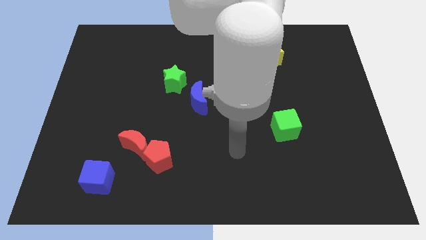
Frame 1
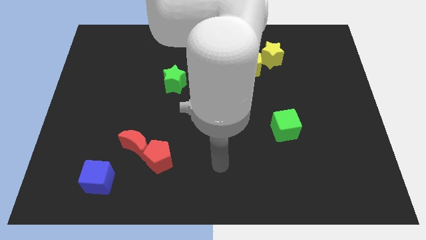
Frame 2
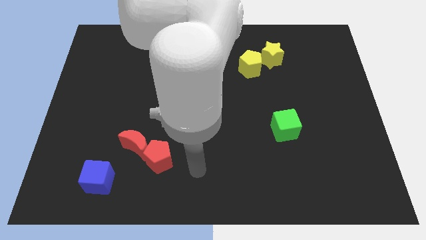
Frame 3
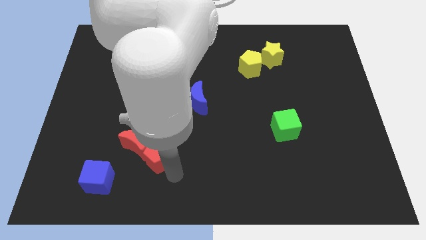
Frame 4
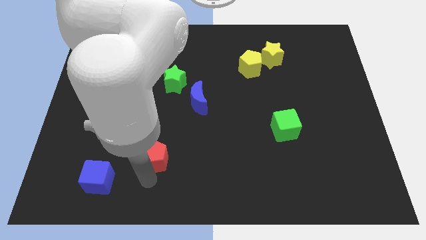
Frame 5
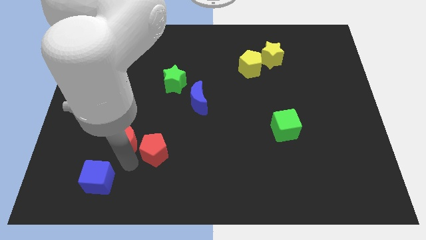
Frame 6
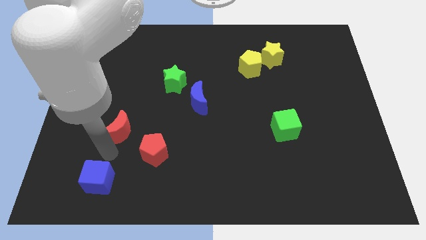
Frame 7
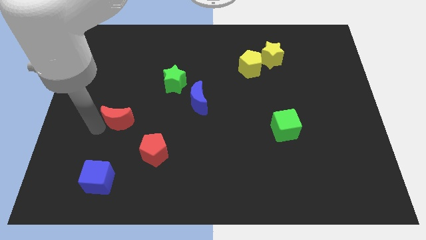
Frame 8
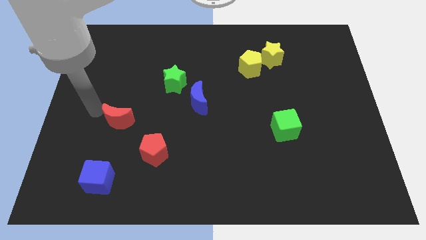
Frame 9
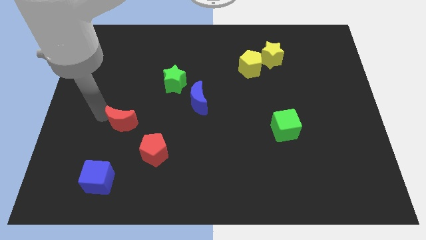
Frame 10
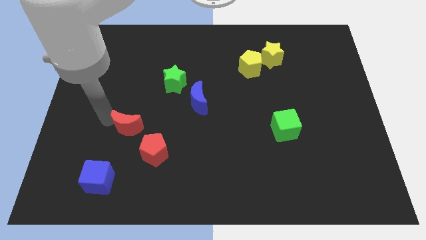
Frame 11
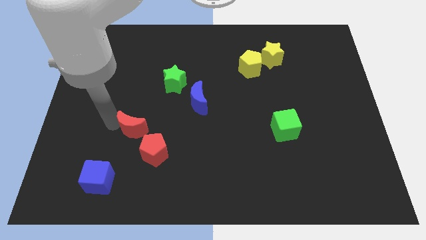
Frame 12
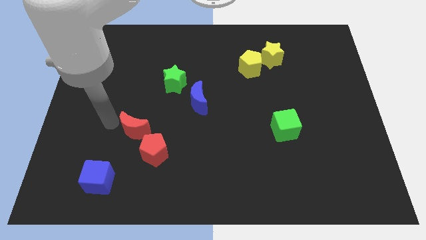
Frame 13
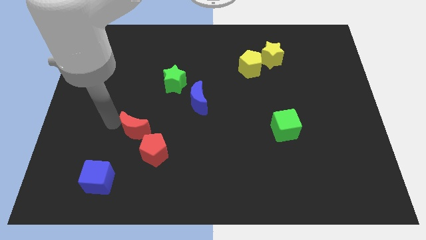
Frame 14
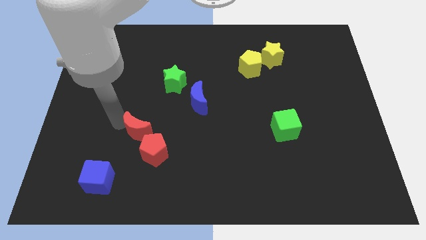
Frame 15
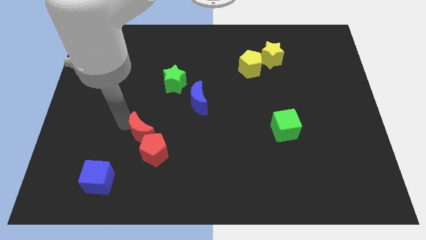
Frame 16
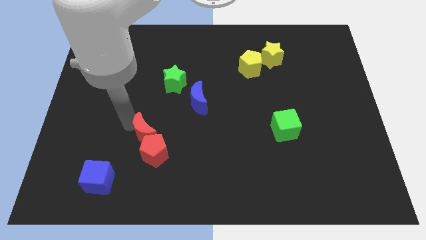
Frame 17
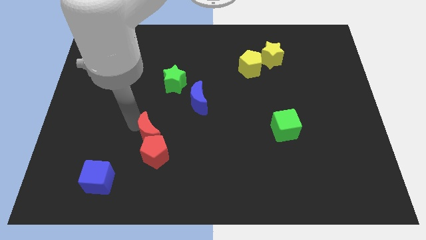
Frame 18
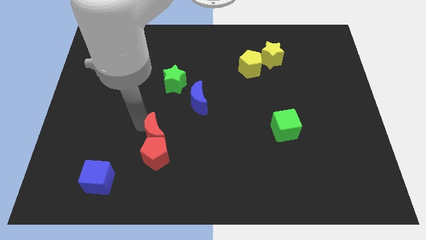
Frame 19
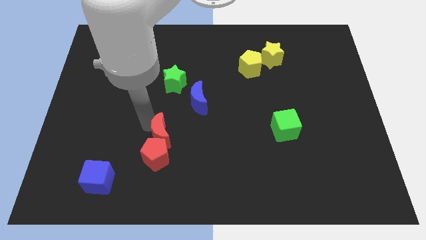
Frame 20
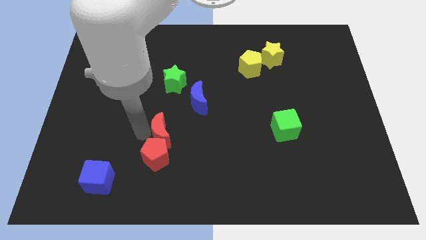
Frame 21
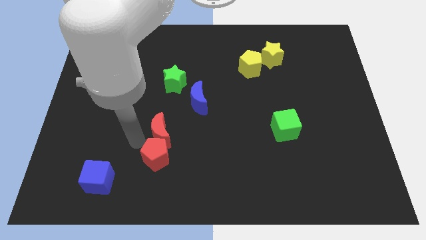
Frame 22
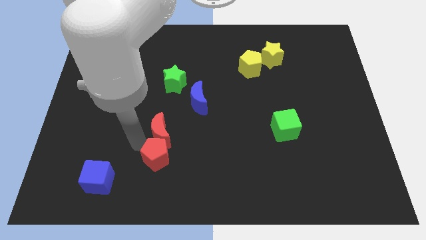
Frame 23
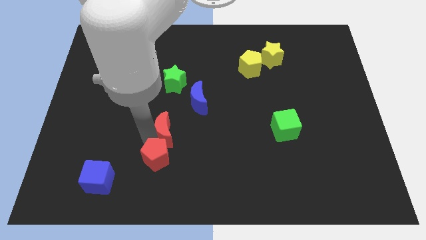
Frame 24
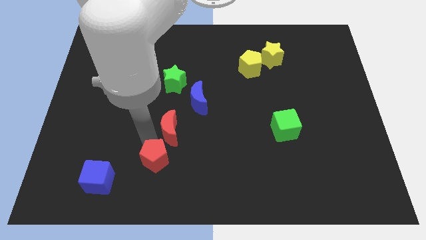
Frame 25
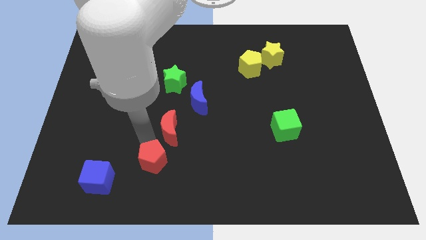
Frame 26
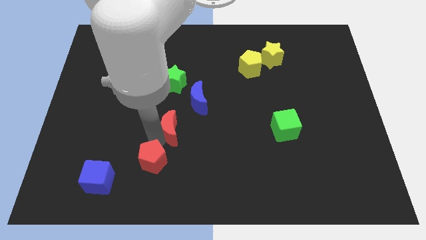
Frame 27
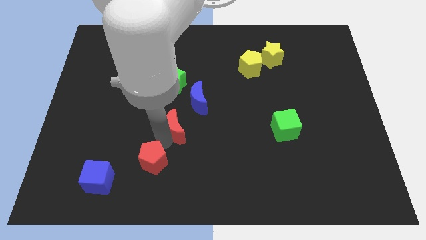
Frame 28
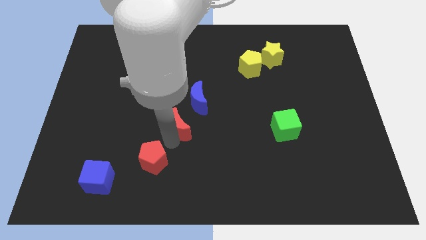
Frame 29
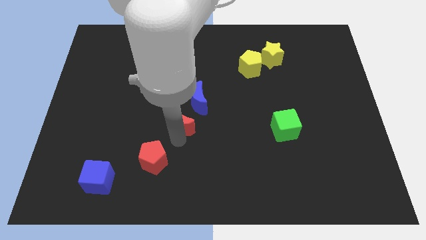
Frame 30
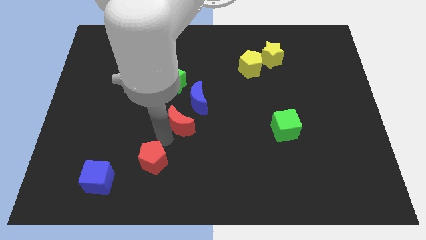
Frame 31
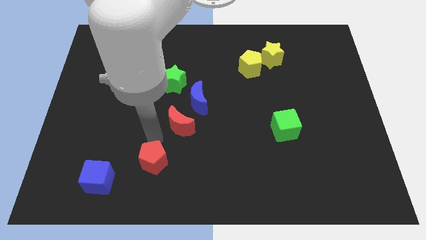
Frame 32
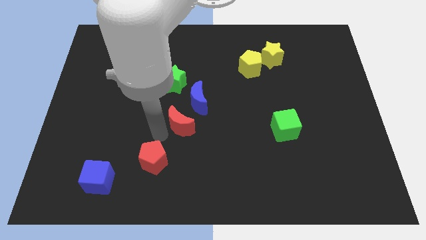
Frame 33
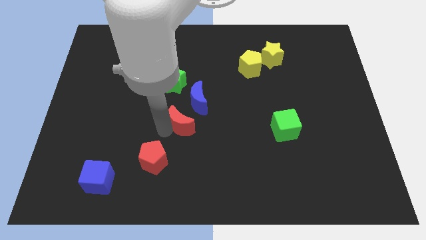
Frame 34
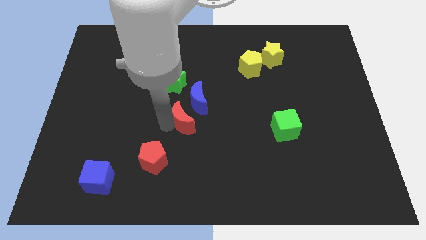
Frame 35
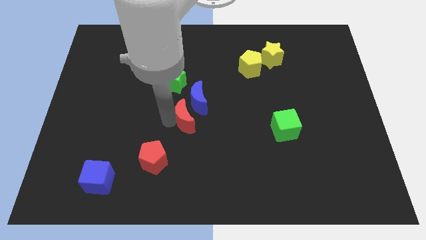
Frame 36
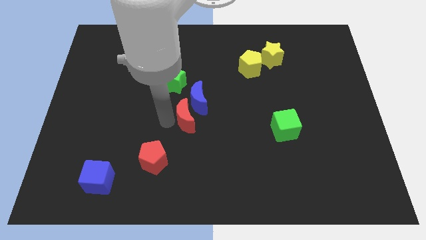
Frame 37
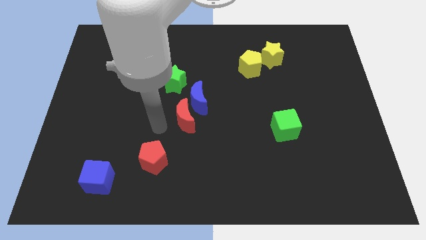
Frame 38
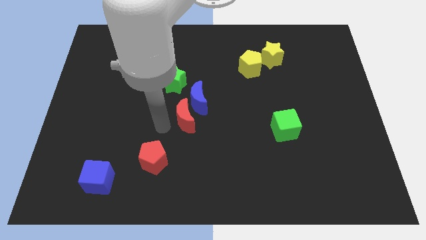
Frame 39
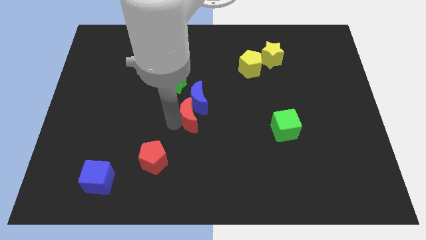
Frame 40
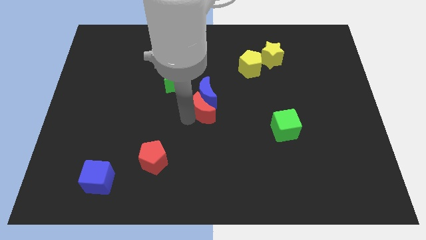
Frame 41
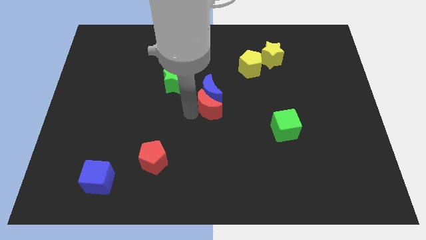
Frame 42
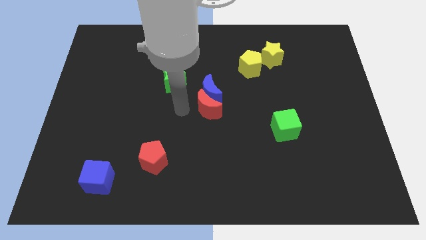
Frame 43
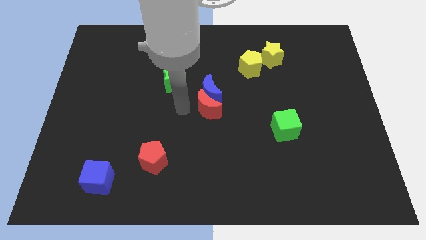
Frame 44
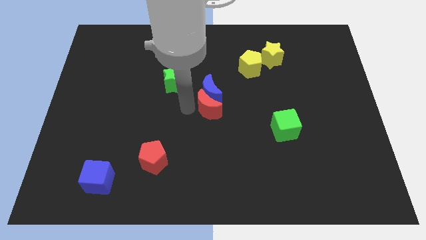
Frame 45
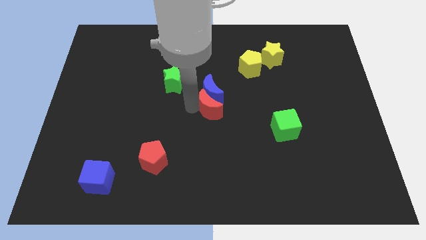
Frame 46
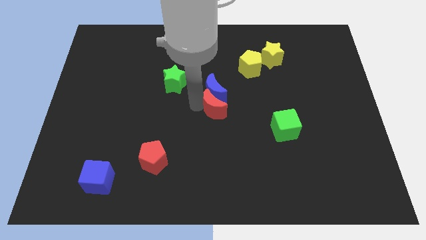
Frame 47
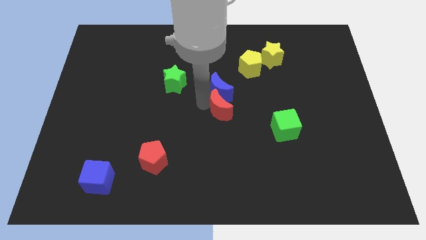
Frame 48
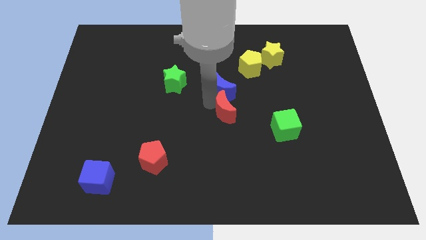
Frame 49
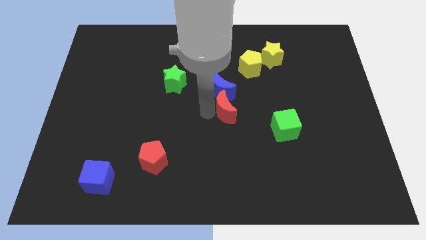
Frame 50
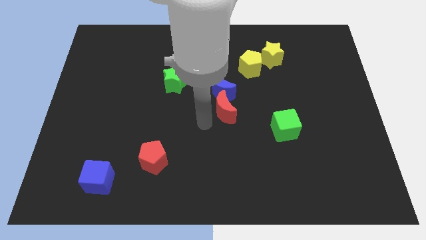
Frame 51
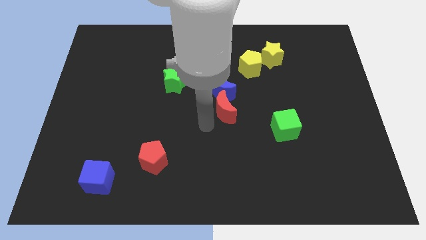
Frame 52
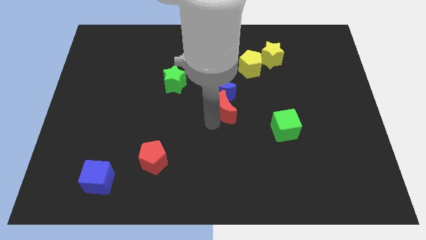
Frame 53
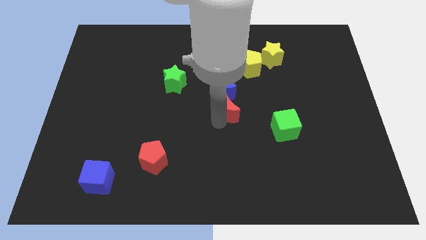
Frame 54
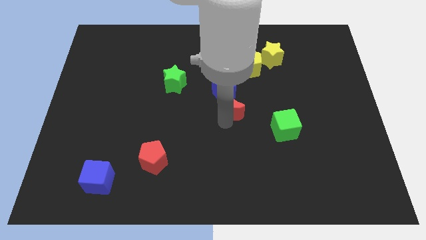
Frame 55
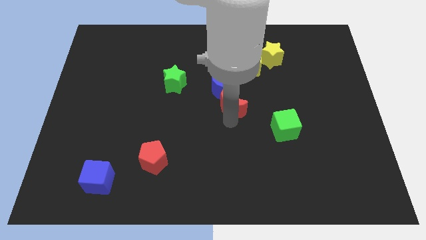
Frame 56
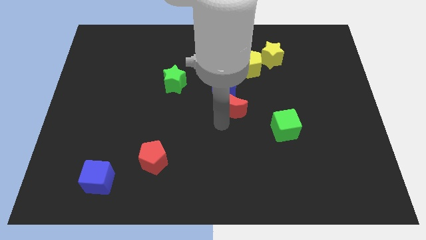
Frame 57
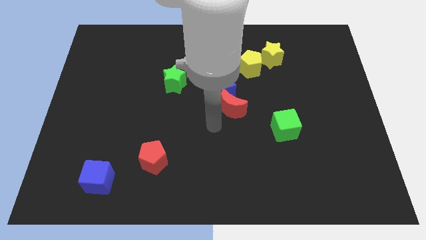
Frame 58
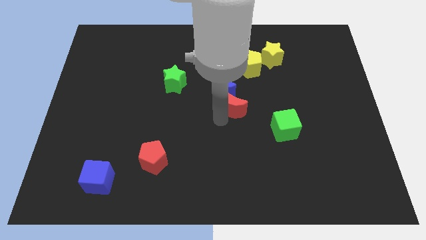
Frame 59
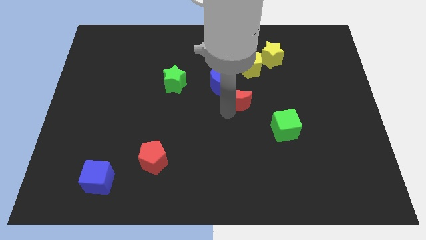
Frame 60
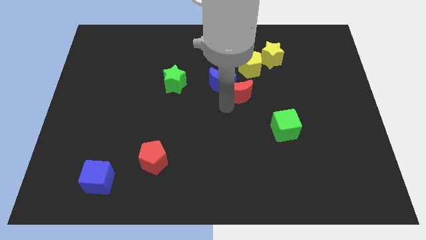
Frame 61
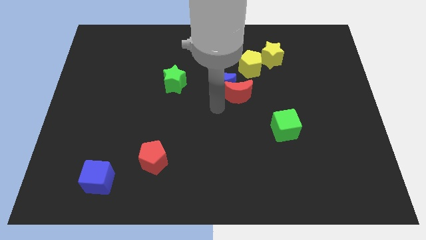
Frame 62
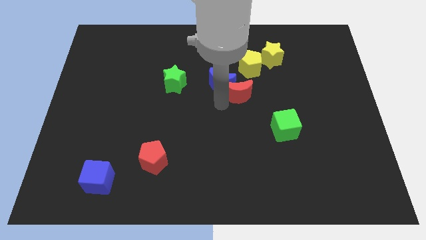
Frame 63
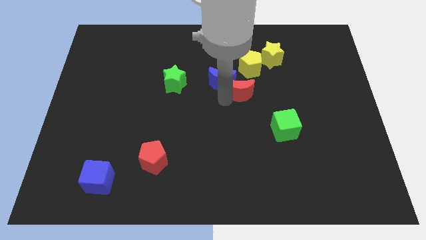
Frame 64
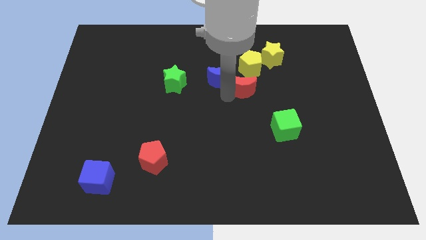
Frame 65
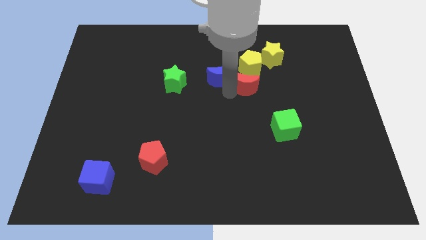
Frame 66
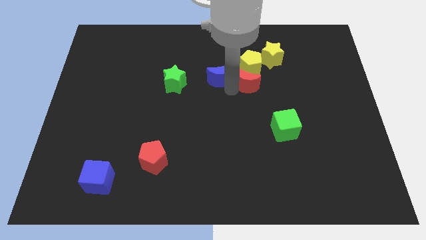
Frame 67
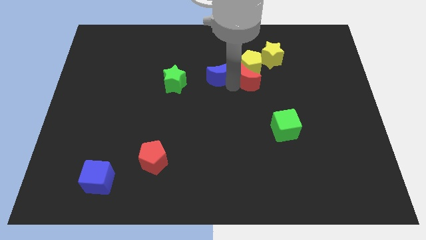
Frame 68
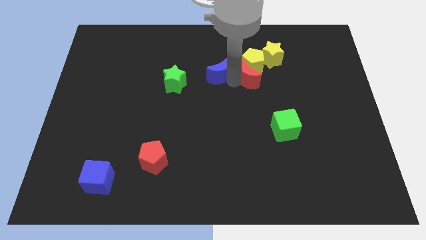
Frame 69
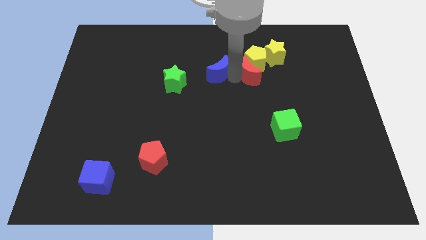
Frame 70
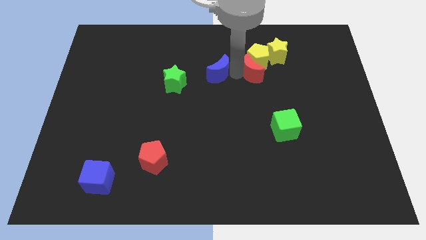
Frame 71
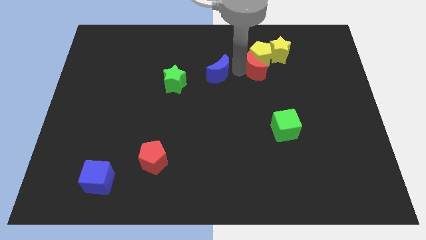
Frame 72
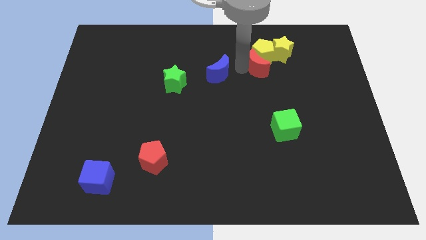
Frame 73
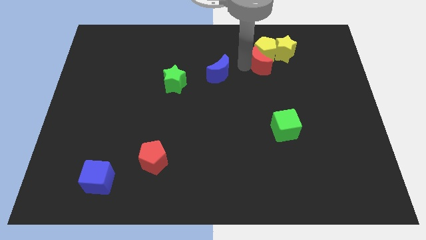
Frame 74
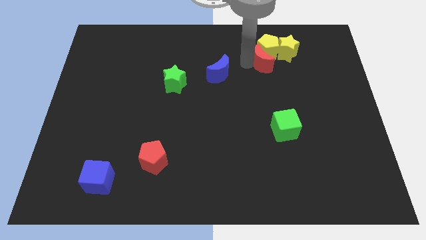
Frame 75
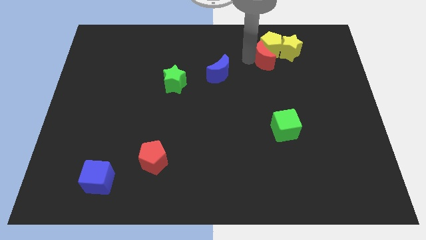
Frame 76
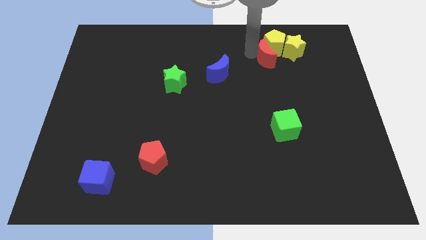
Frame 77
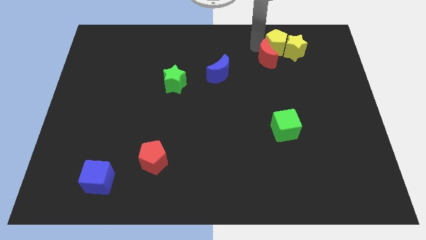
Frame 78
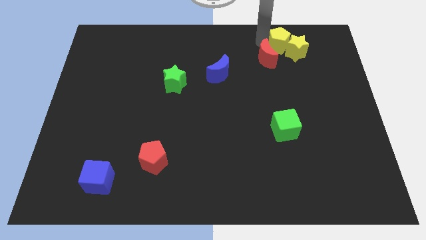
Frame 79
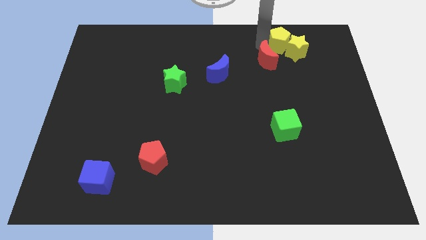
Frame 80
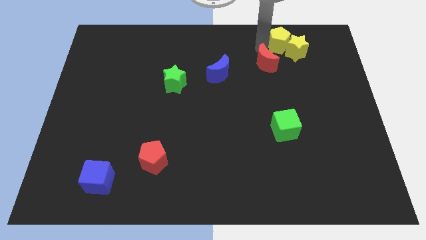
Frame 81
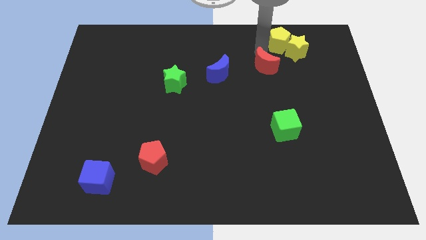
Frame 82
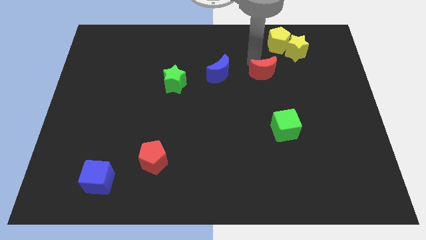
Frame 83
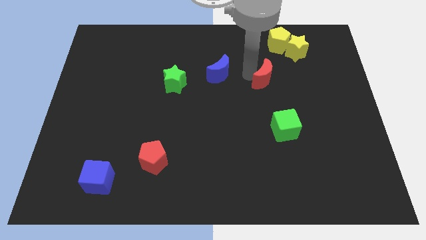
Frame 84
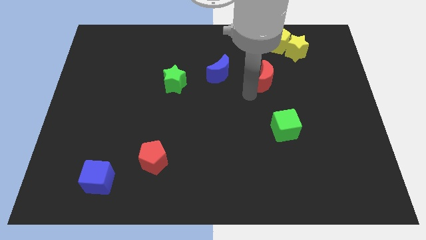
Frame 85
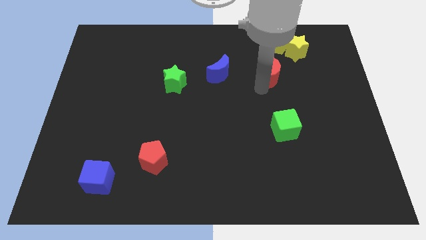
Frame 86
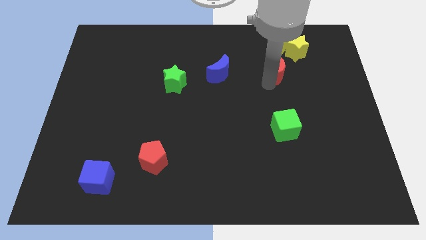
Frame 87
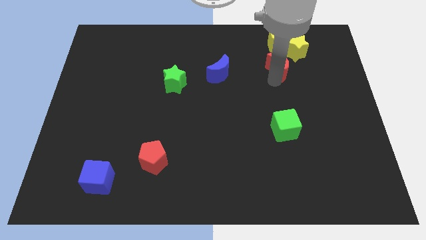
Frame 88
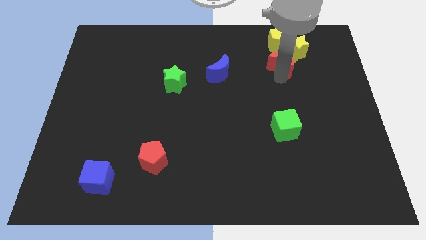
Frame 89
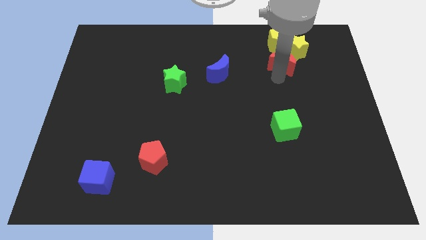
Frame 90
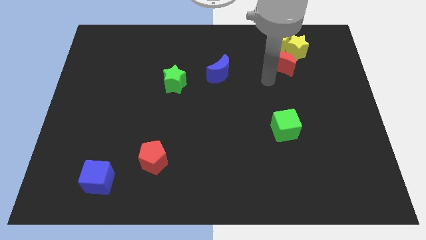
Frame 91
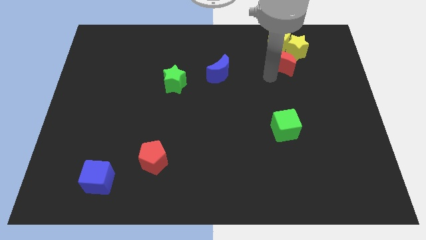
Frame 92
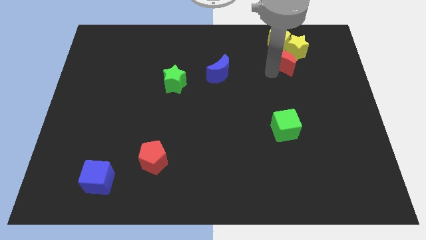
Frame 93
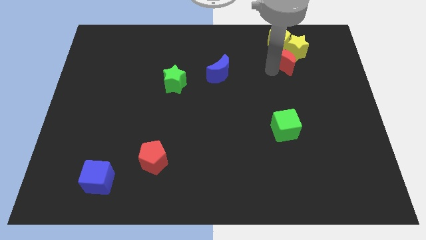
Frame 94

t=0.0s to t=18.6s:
slide the red moon next to the yellow star
